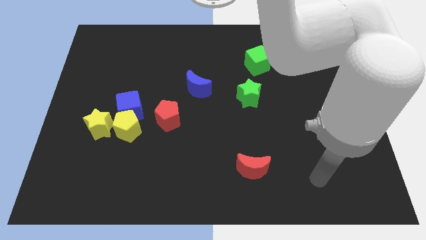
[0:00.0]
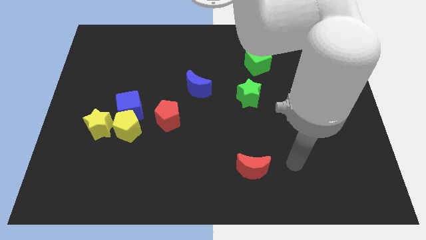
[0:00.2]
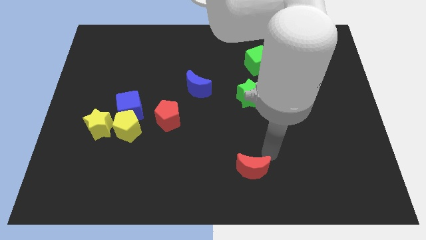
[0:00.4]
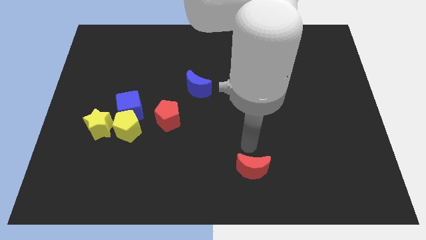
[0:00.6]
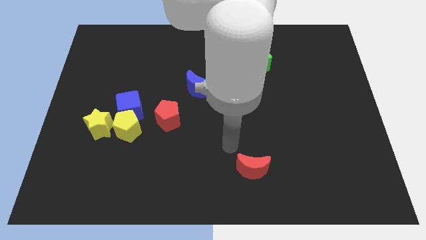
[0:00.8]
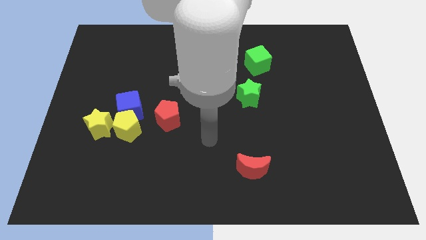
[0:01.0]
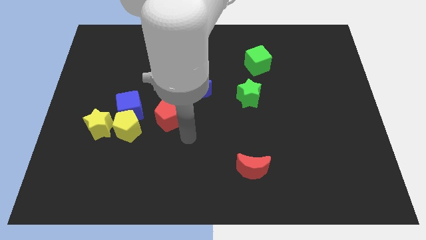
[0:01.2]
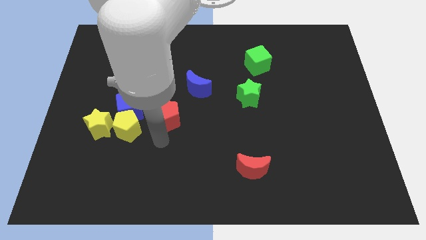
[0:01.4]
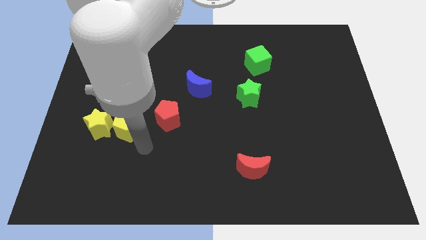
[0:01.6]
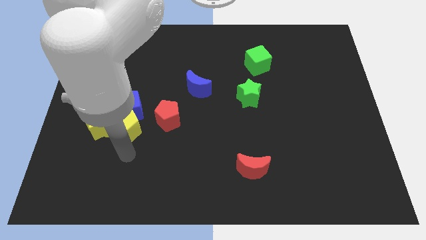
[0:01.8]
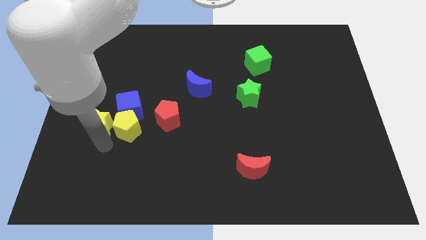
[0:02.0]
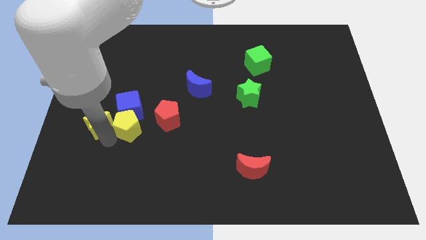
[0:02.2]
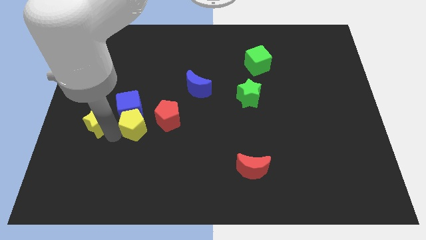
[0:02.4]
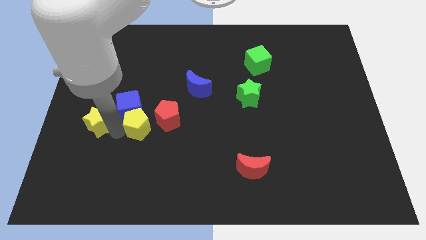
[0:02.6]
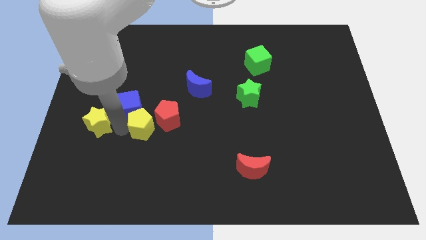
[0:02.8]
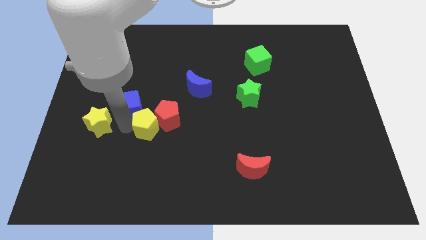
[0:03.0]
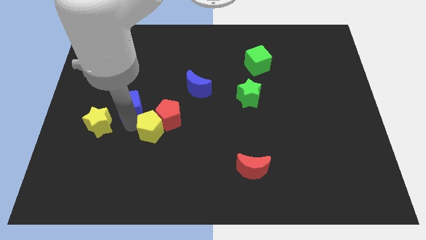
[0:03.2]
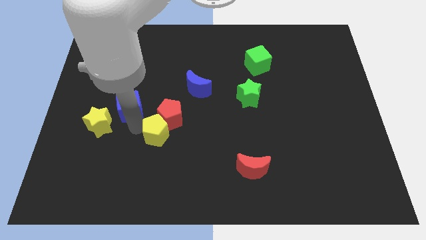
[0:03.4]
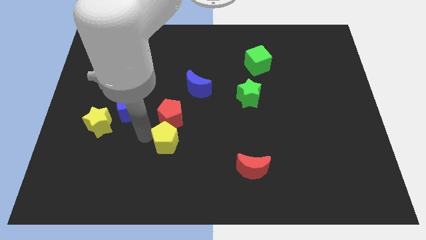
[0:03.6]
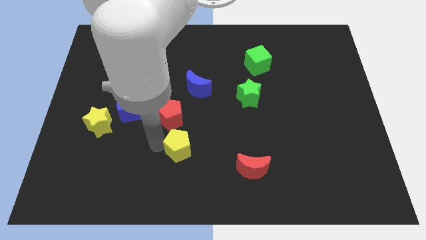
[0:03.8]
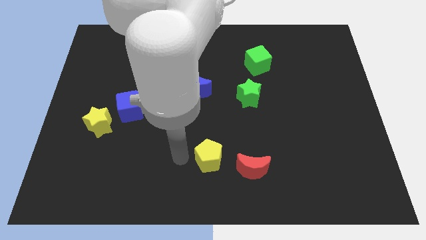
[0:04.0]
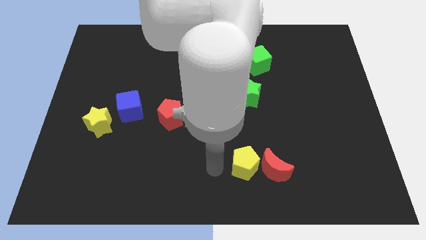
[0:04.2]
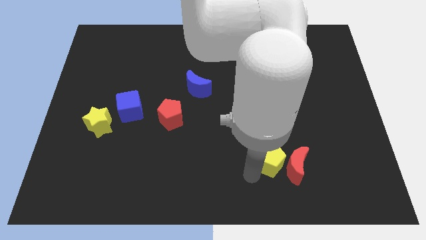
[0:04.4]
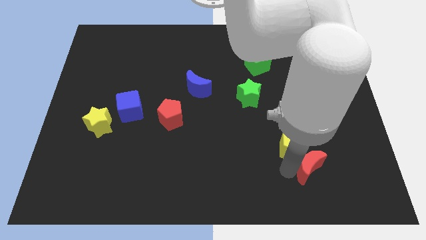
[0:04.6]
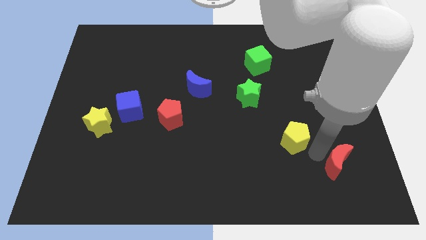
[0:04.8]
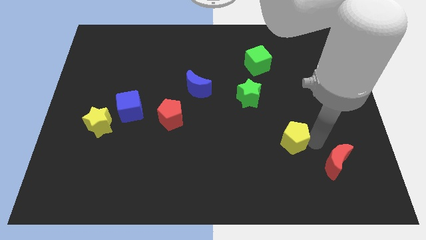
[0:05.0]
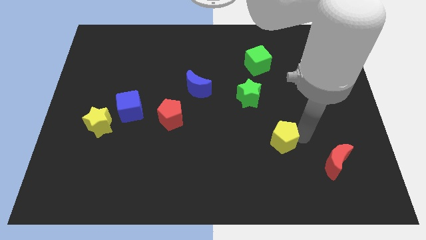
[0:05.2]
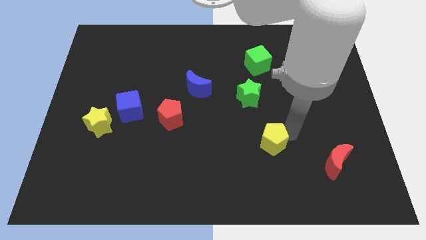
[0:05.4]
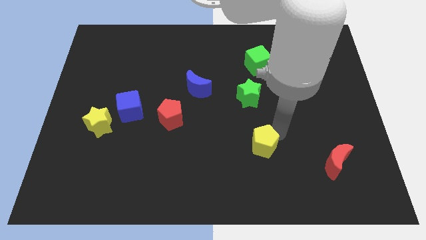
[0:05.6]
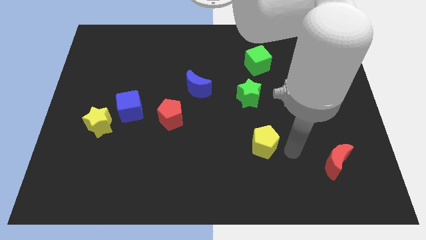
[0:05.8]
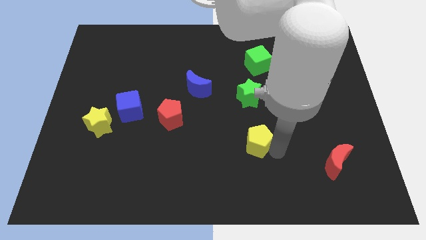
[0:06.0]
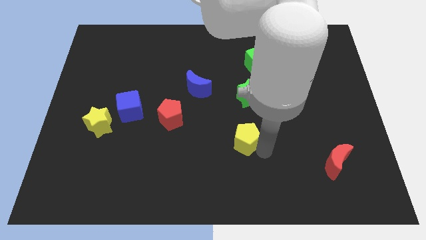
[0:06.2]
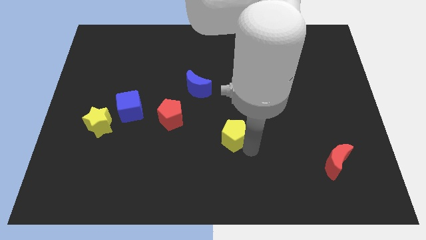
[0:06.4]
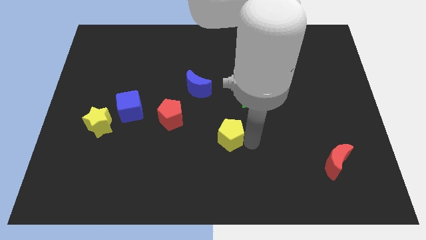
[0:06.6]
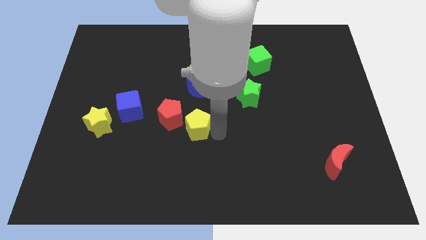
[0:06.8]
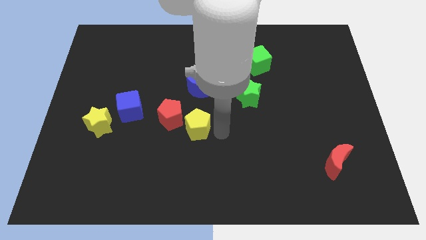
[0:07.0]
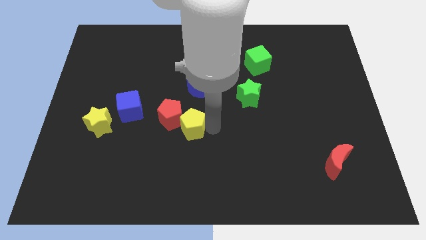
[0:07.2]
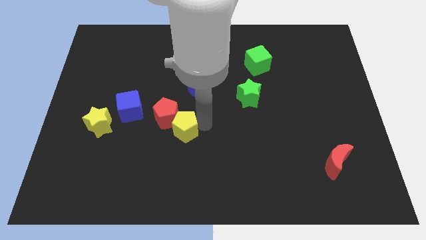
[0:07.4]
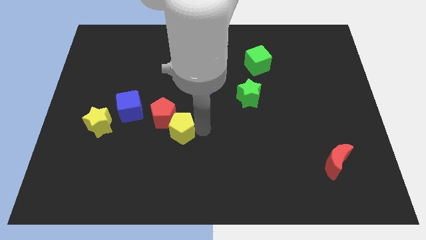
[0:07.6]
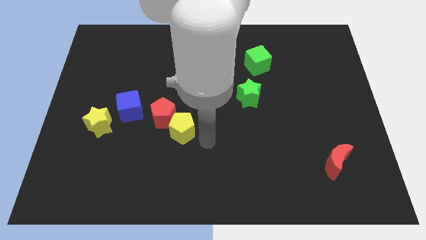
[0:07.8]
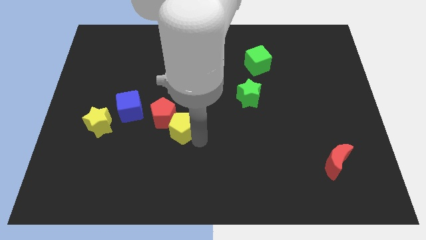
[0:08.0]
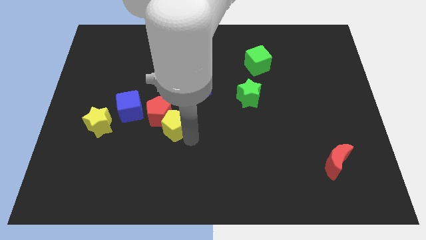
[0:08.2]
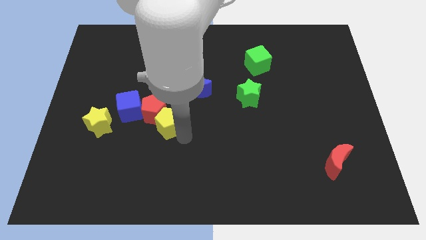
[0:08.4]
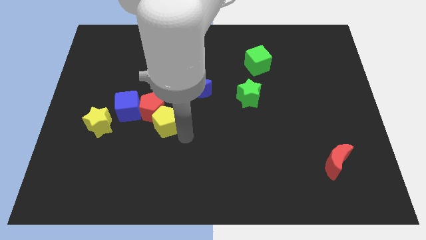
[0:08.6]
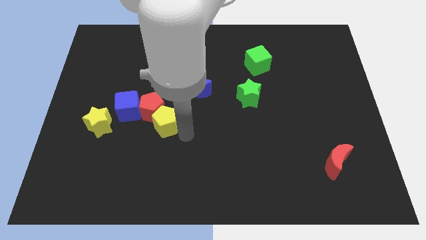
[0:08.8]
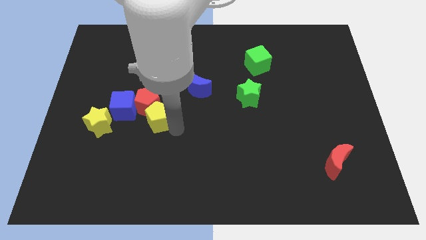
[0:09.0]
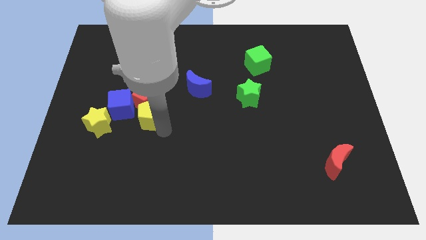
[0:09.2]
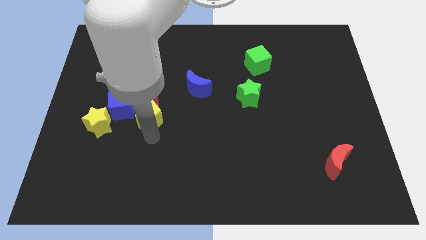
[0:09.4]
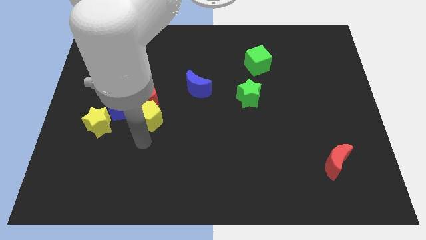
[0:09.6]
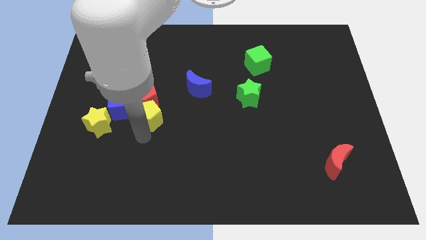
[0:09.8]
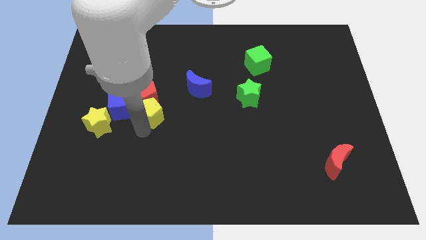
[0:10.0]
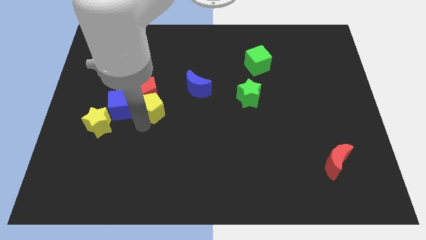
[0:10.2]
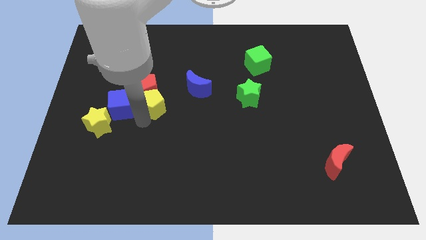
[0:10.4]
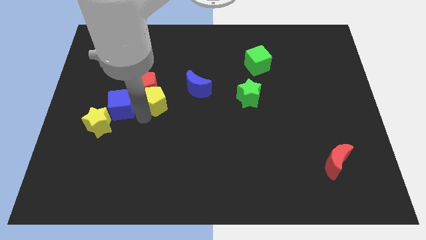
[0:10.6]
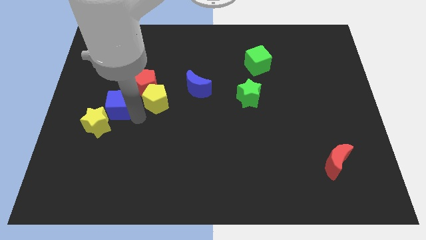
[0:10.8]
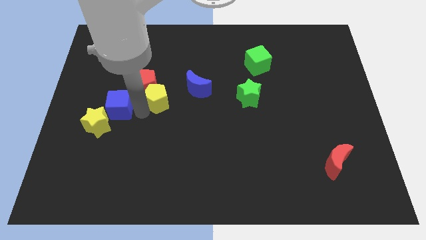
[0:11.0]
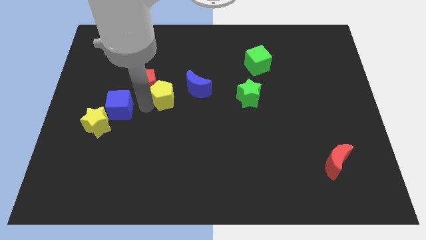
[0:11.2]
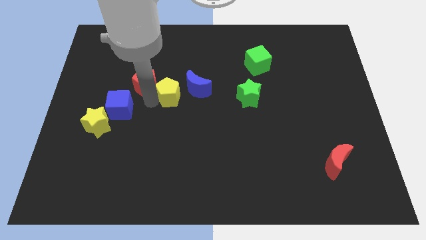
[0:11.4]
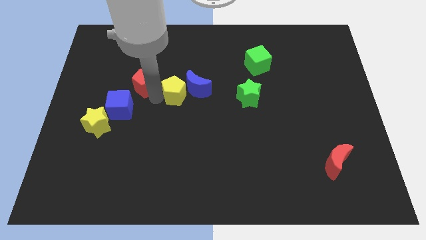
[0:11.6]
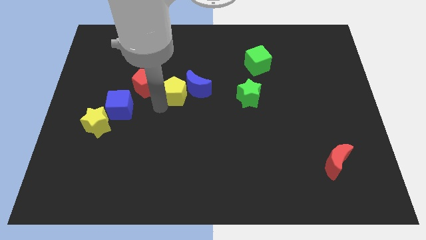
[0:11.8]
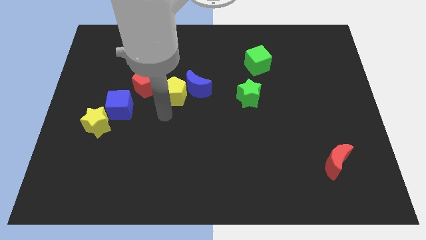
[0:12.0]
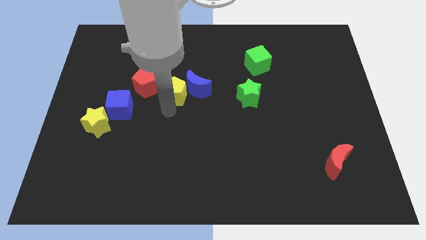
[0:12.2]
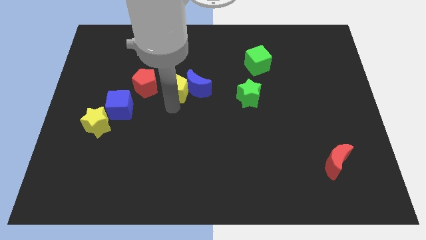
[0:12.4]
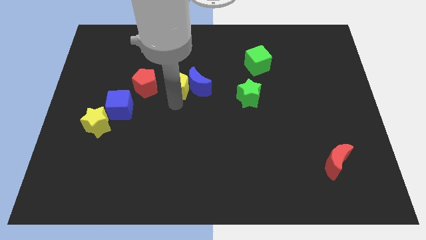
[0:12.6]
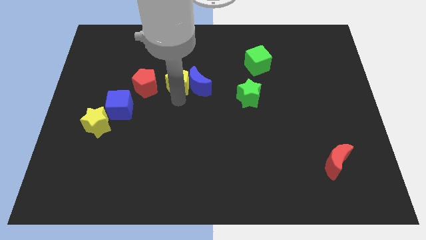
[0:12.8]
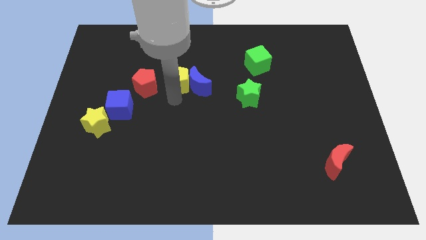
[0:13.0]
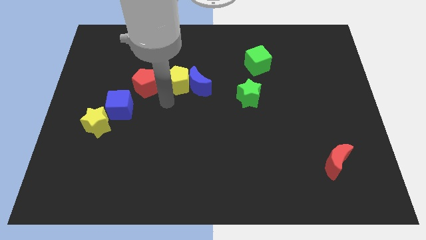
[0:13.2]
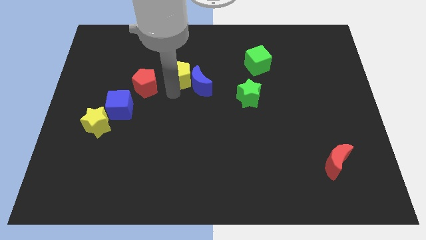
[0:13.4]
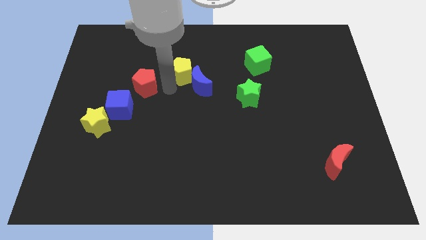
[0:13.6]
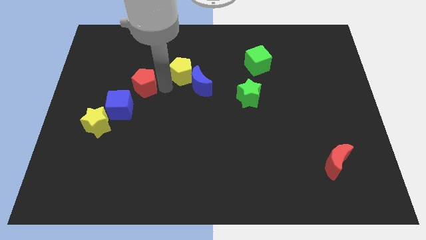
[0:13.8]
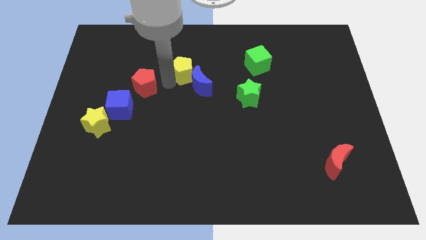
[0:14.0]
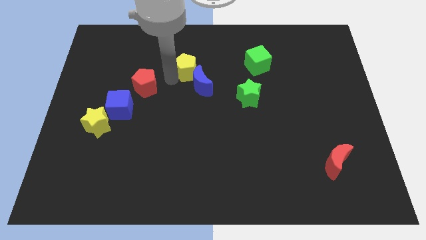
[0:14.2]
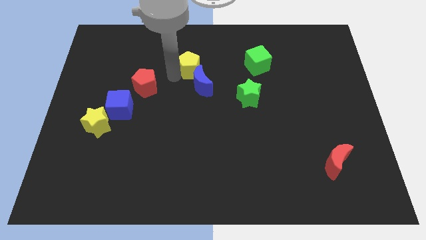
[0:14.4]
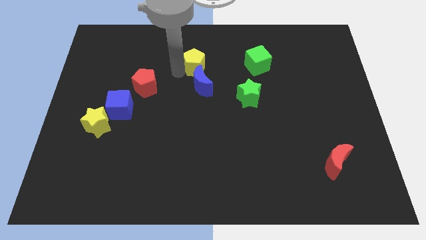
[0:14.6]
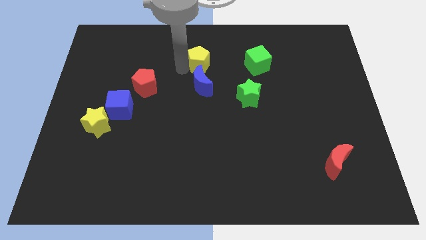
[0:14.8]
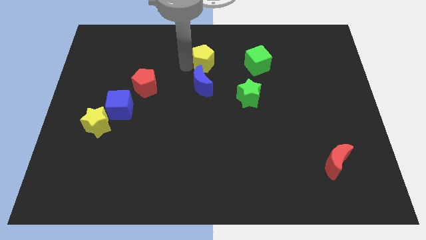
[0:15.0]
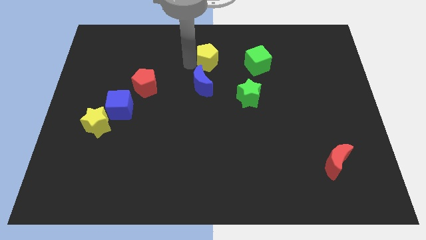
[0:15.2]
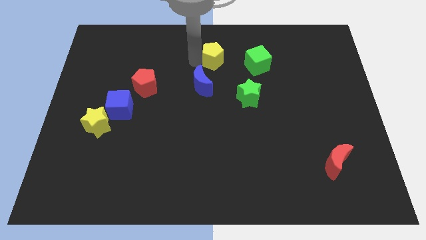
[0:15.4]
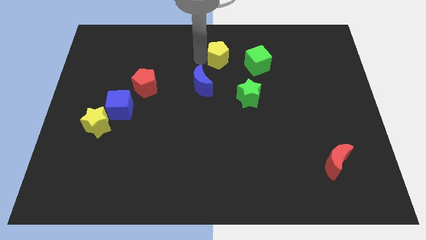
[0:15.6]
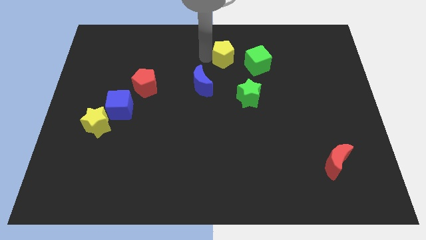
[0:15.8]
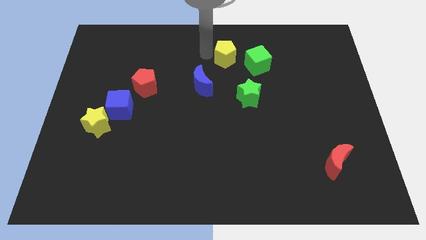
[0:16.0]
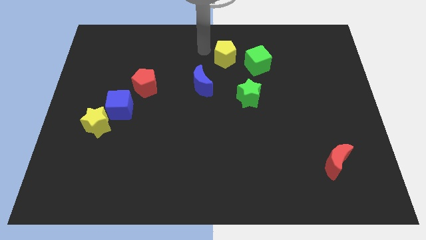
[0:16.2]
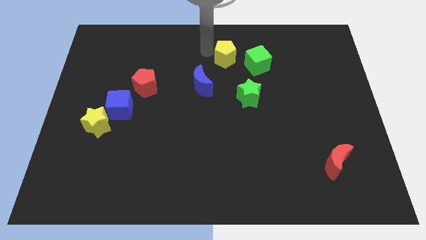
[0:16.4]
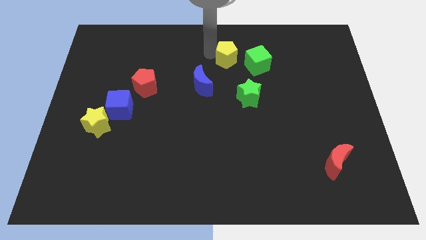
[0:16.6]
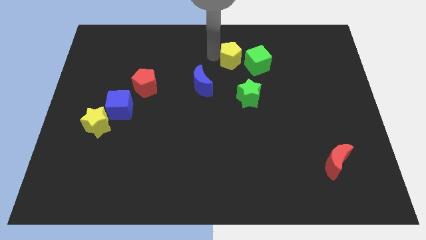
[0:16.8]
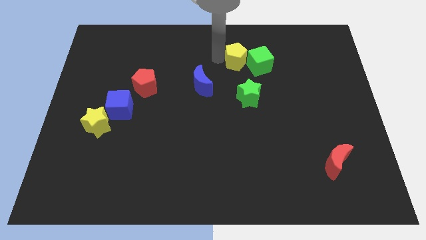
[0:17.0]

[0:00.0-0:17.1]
push the yellow pentagon close to the green cube
